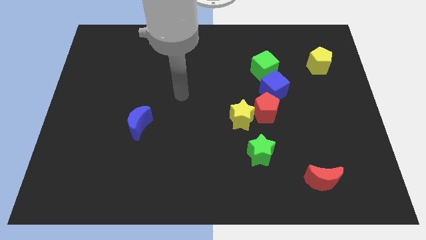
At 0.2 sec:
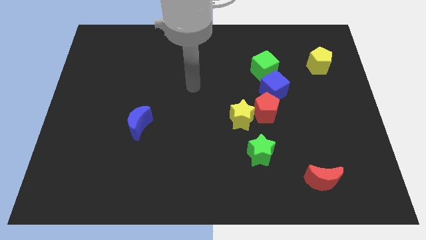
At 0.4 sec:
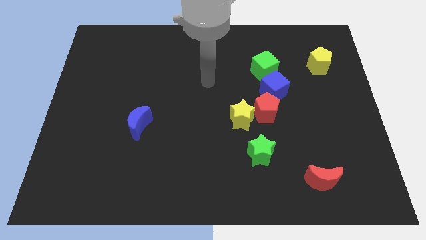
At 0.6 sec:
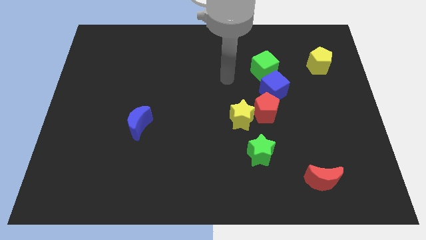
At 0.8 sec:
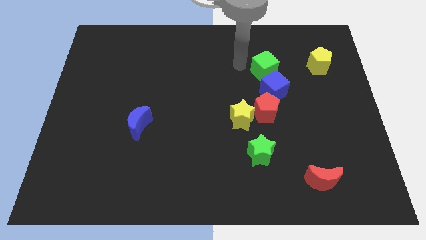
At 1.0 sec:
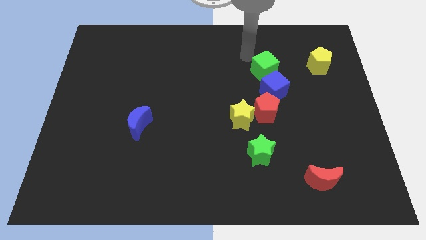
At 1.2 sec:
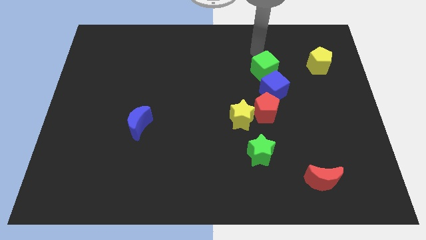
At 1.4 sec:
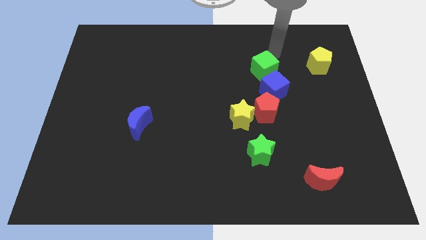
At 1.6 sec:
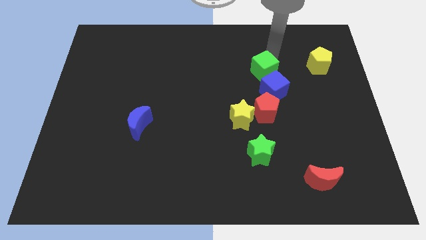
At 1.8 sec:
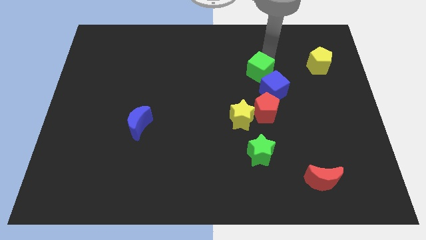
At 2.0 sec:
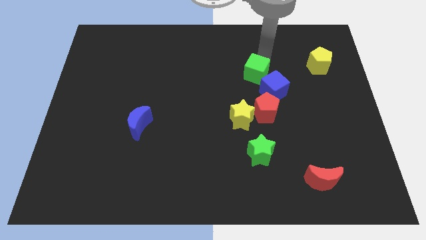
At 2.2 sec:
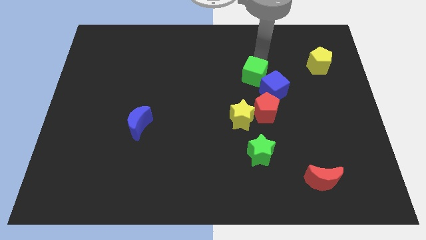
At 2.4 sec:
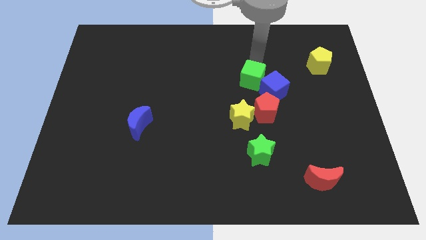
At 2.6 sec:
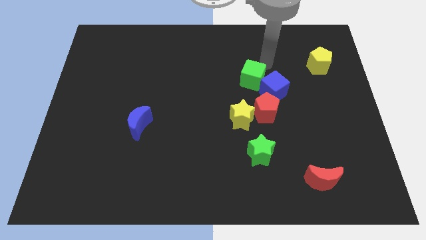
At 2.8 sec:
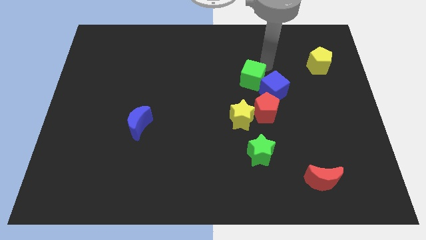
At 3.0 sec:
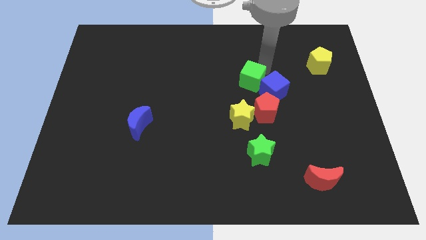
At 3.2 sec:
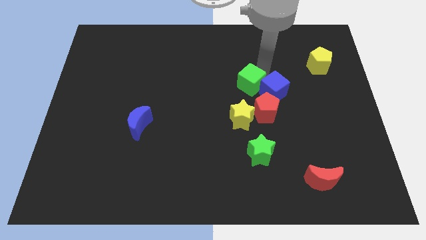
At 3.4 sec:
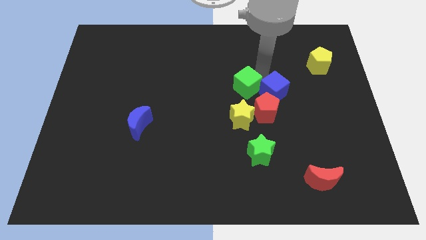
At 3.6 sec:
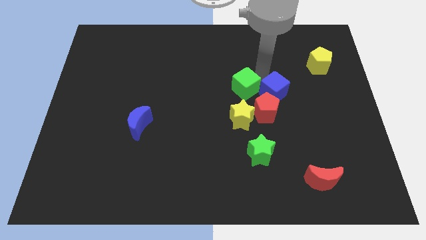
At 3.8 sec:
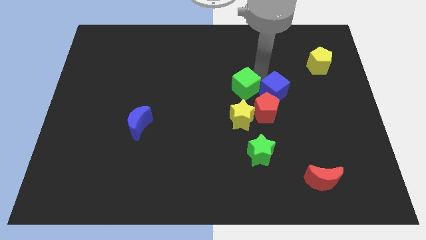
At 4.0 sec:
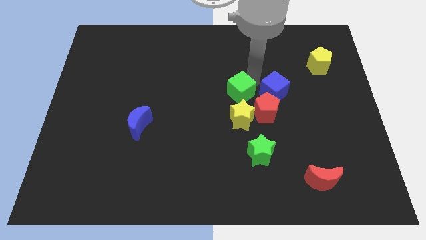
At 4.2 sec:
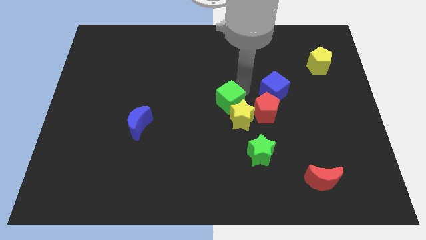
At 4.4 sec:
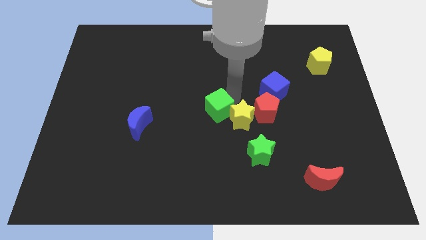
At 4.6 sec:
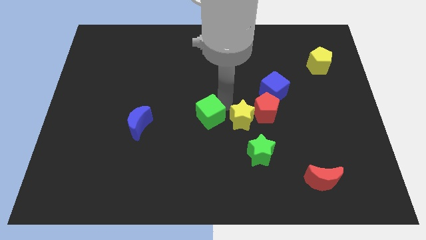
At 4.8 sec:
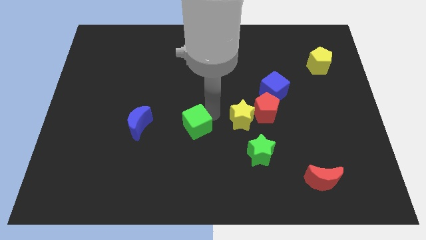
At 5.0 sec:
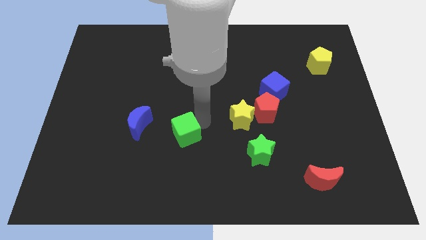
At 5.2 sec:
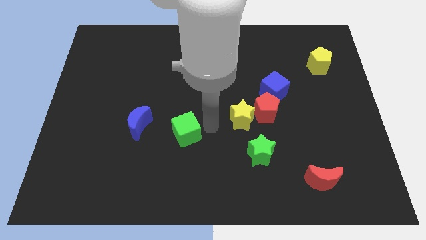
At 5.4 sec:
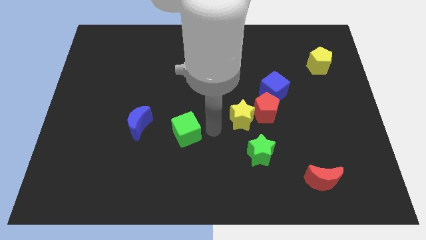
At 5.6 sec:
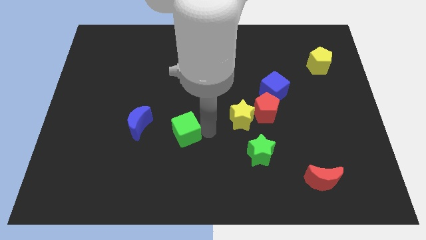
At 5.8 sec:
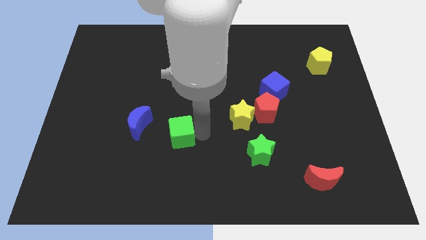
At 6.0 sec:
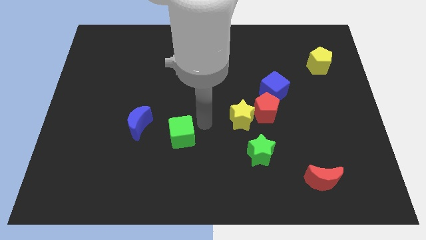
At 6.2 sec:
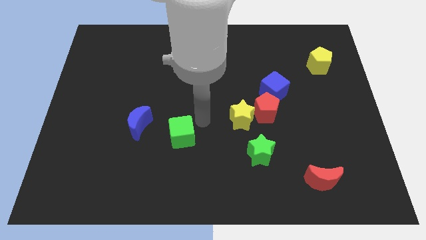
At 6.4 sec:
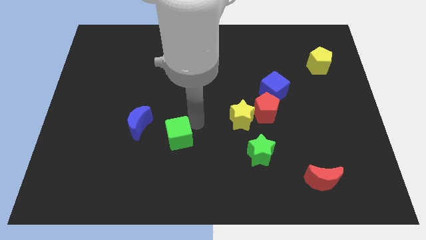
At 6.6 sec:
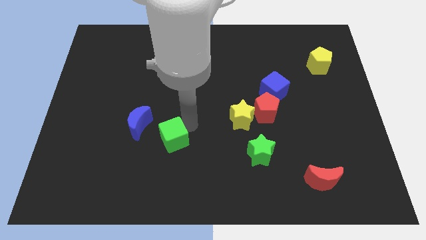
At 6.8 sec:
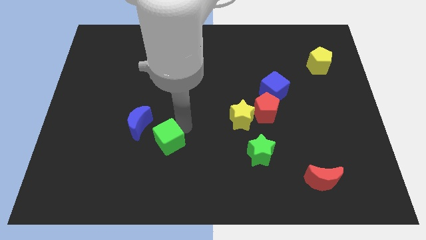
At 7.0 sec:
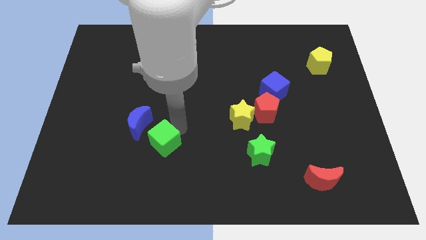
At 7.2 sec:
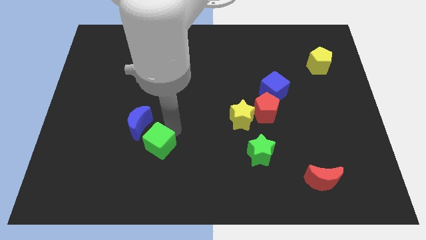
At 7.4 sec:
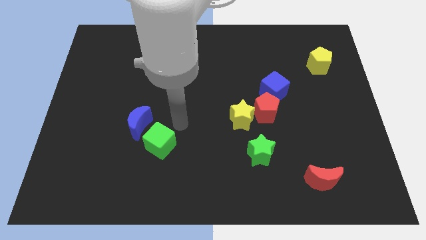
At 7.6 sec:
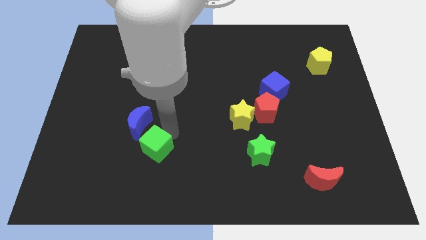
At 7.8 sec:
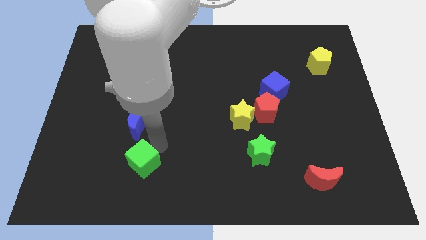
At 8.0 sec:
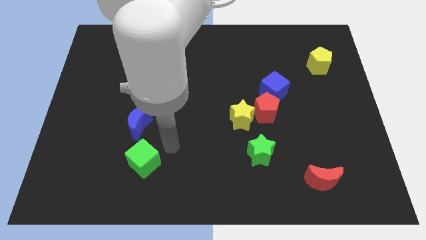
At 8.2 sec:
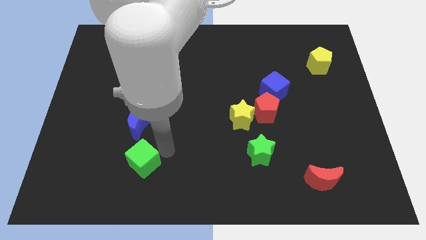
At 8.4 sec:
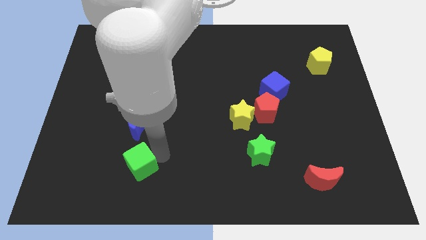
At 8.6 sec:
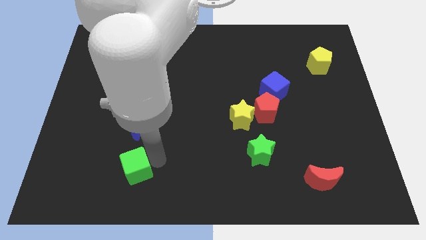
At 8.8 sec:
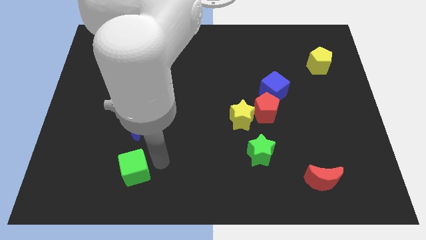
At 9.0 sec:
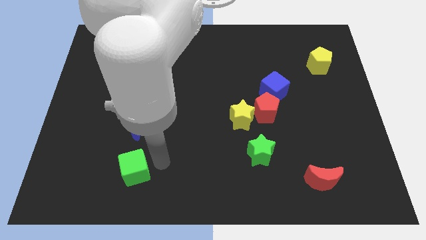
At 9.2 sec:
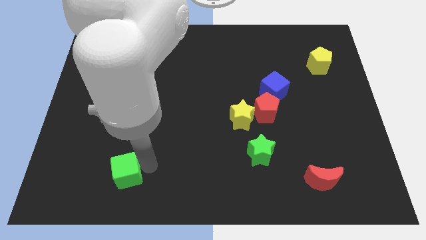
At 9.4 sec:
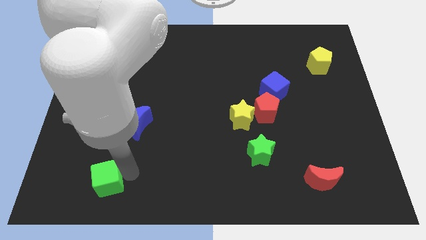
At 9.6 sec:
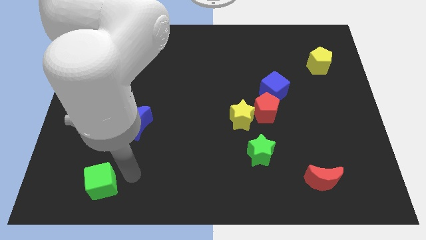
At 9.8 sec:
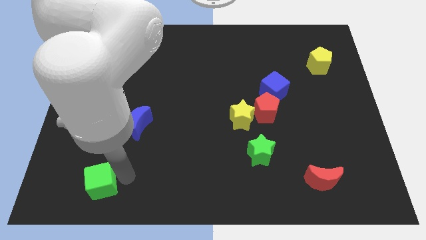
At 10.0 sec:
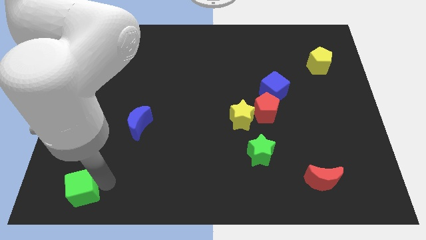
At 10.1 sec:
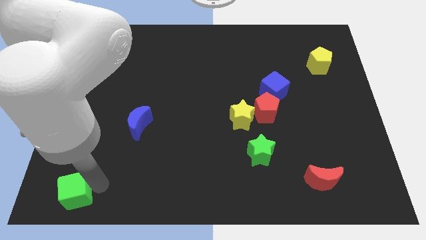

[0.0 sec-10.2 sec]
push the green cube to the bottom left

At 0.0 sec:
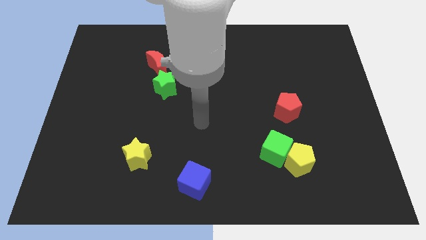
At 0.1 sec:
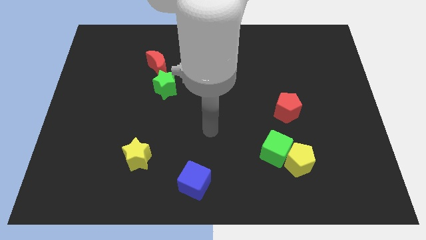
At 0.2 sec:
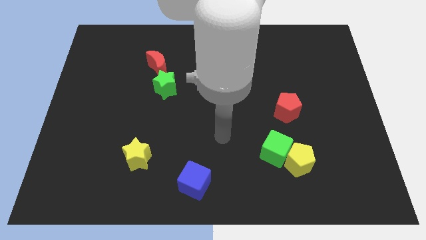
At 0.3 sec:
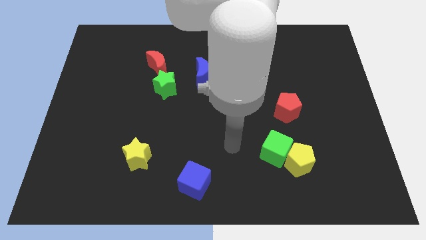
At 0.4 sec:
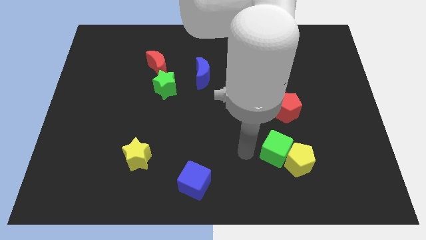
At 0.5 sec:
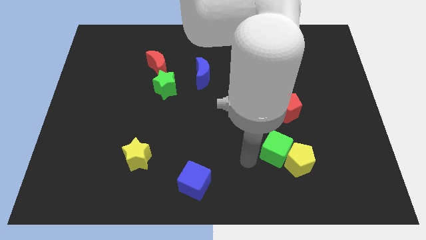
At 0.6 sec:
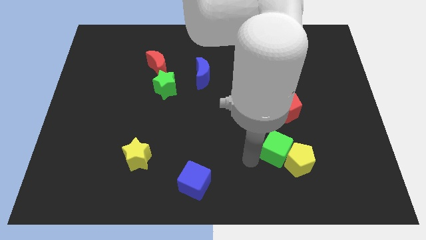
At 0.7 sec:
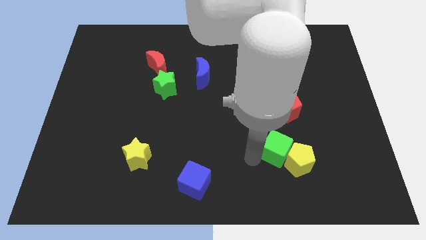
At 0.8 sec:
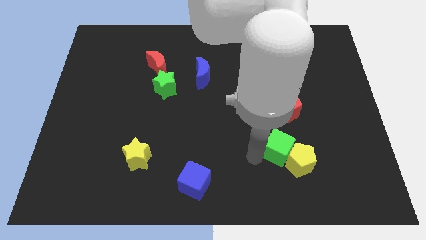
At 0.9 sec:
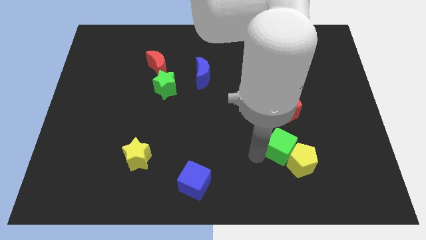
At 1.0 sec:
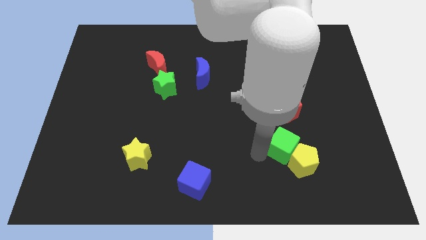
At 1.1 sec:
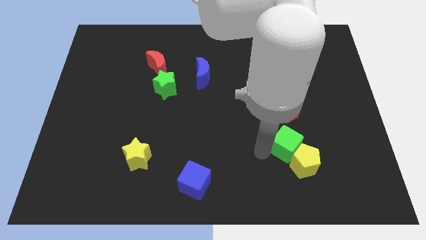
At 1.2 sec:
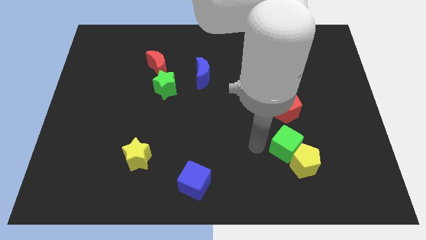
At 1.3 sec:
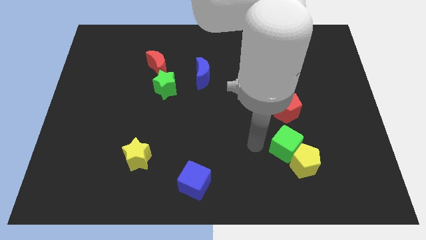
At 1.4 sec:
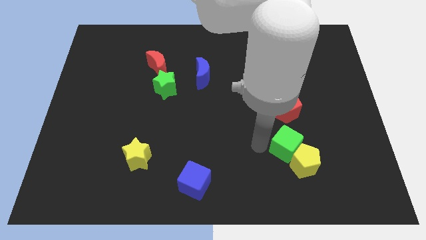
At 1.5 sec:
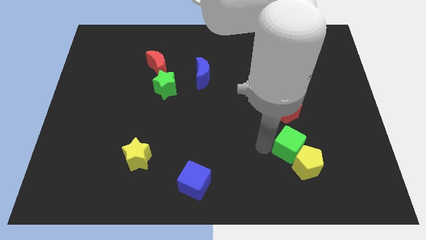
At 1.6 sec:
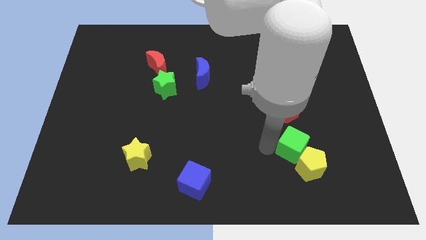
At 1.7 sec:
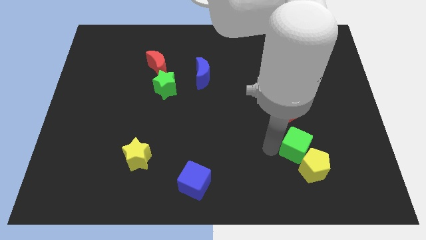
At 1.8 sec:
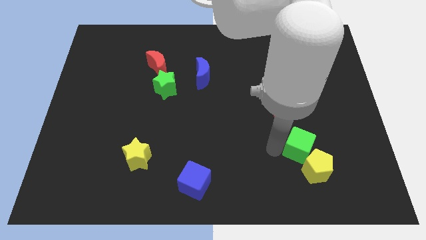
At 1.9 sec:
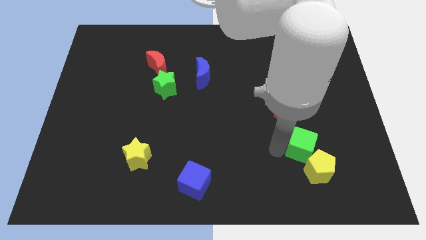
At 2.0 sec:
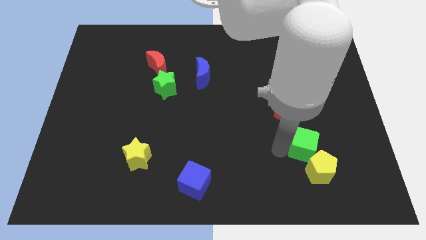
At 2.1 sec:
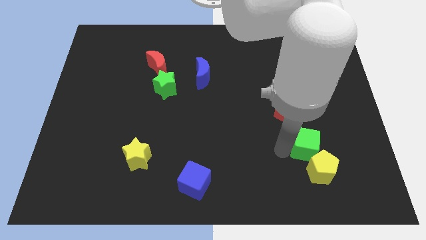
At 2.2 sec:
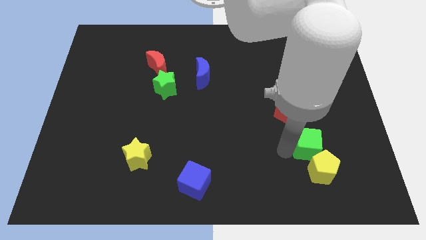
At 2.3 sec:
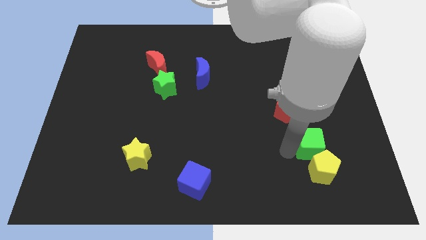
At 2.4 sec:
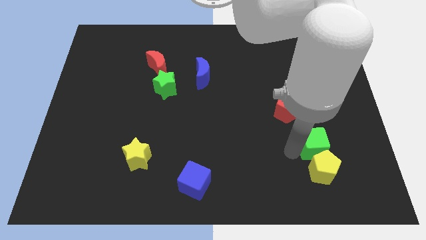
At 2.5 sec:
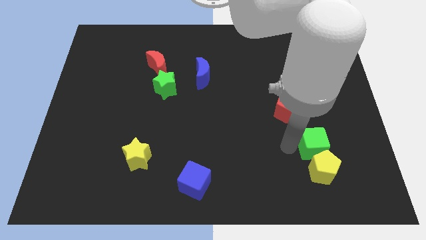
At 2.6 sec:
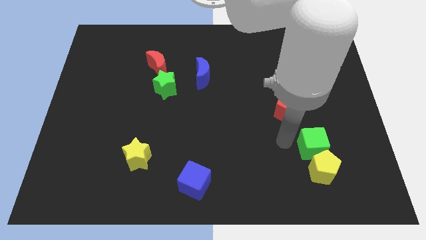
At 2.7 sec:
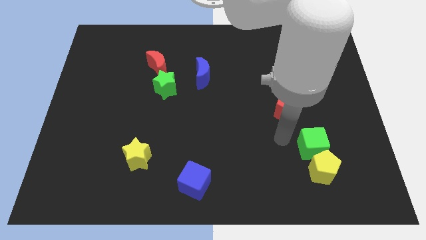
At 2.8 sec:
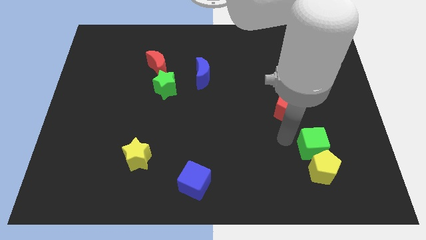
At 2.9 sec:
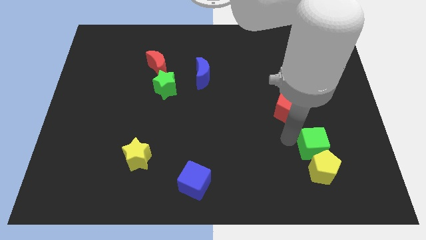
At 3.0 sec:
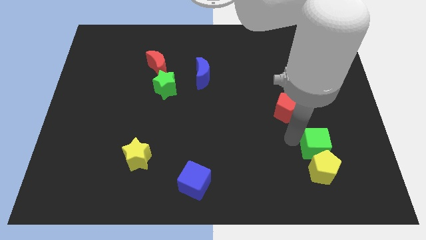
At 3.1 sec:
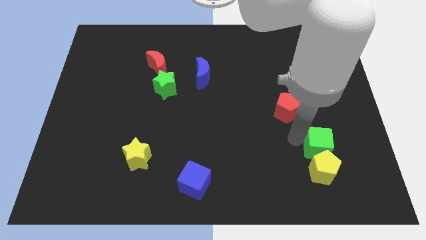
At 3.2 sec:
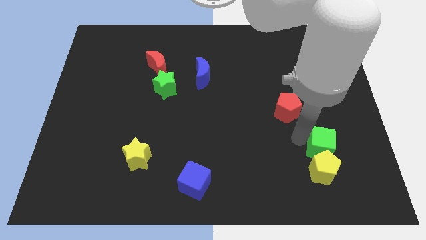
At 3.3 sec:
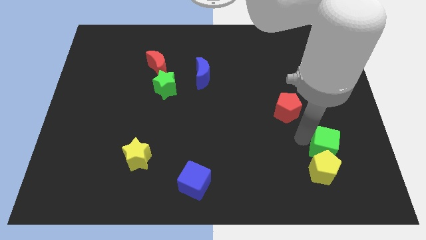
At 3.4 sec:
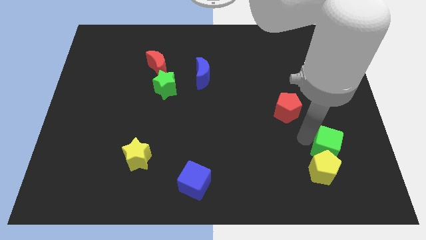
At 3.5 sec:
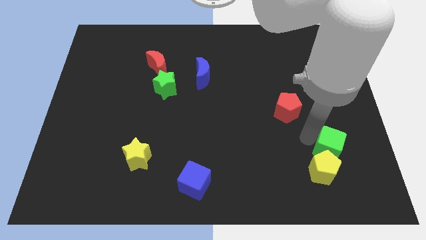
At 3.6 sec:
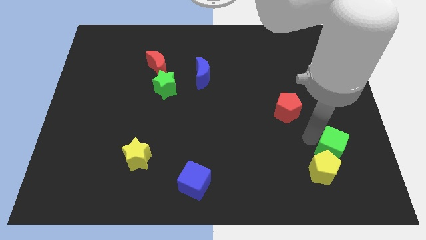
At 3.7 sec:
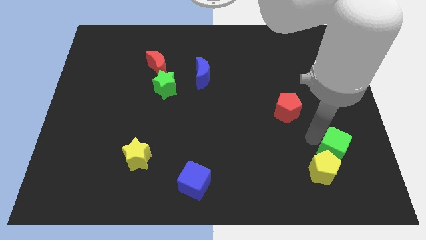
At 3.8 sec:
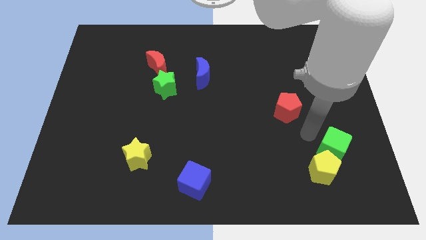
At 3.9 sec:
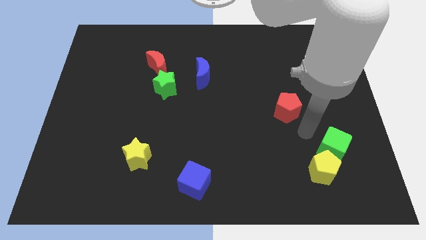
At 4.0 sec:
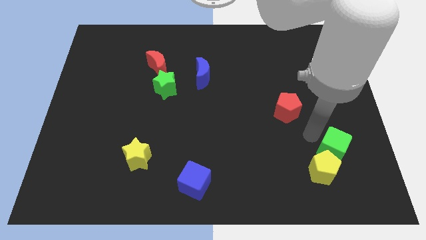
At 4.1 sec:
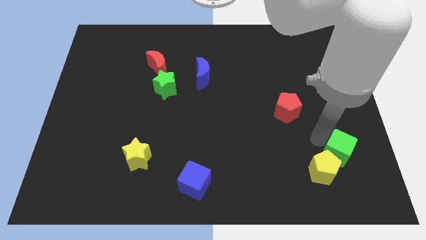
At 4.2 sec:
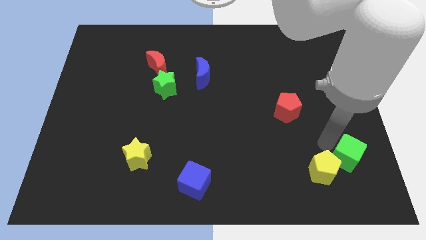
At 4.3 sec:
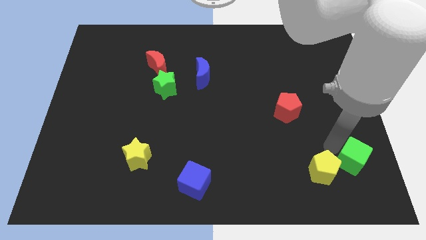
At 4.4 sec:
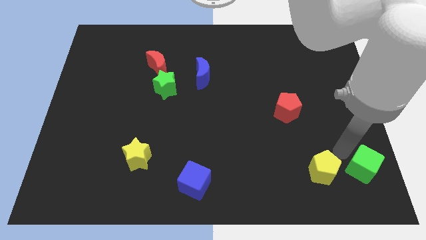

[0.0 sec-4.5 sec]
push the green cube to the bottom right
